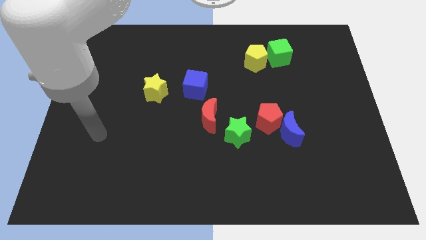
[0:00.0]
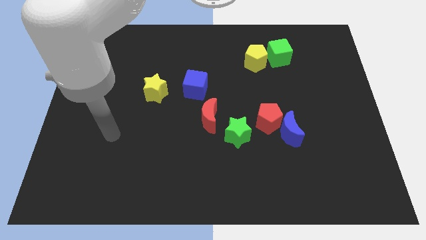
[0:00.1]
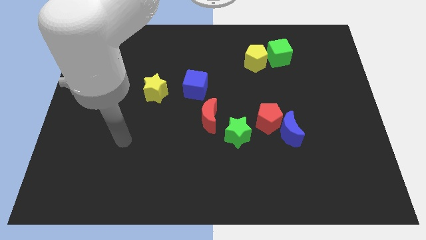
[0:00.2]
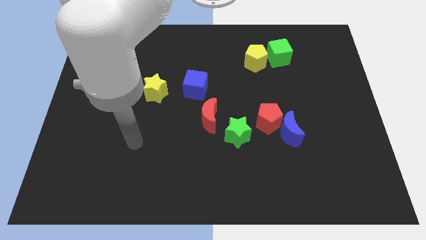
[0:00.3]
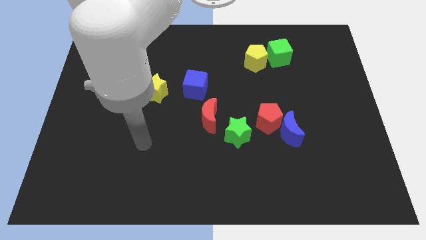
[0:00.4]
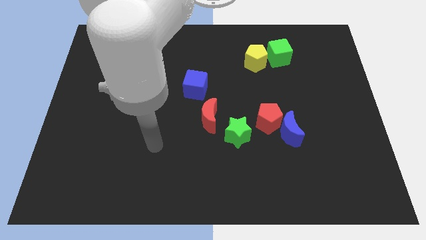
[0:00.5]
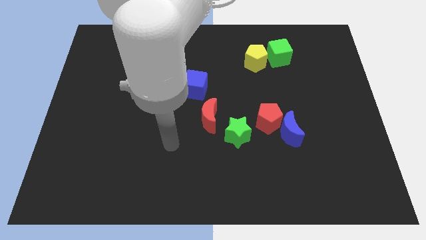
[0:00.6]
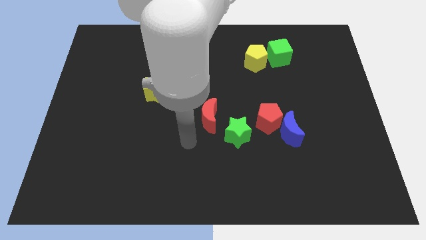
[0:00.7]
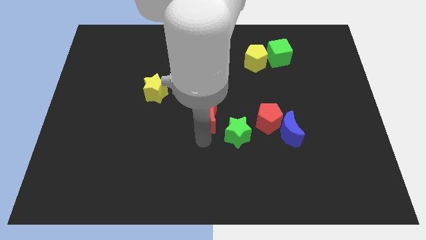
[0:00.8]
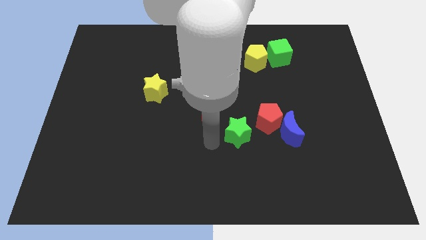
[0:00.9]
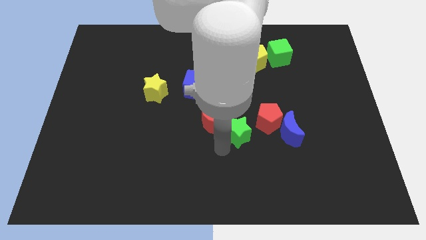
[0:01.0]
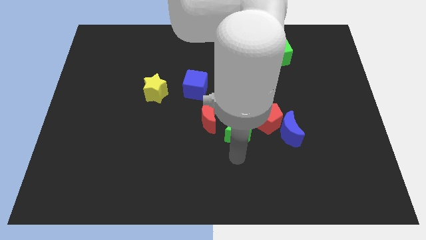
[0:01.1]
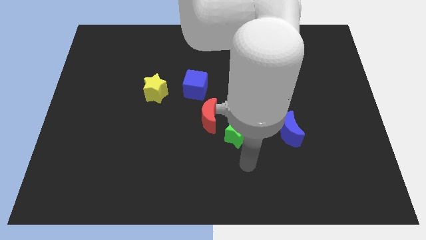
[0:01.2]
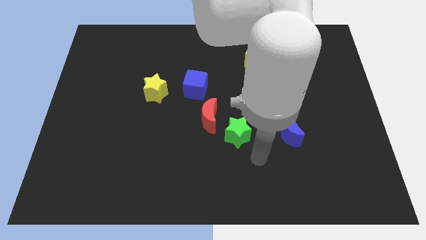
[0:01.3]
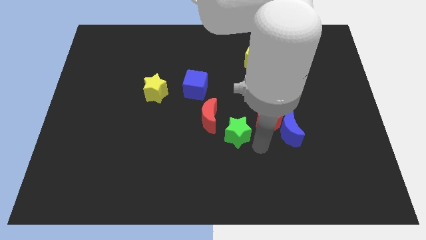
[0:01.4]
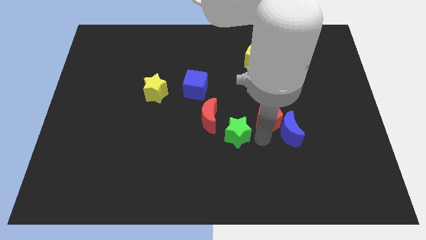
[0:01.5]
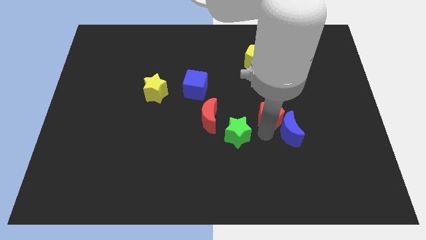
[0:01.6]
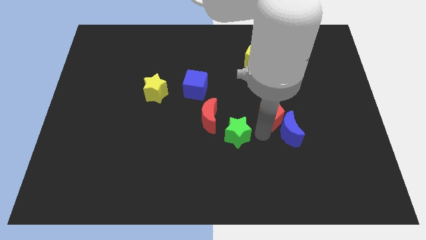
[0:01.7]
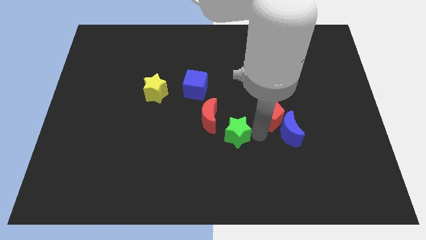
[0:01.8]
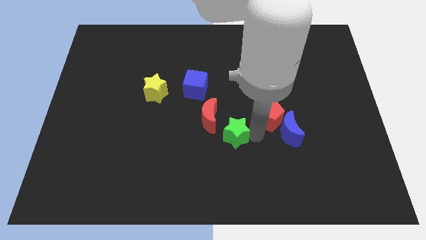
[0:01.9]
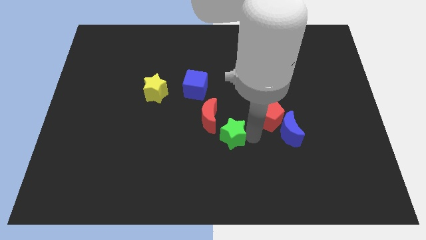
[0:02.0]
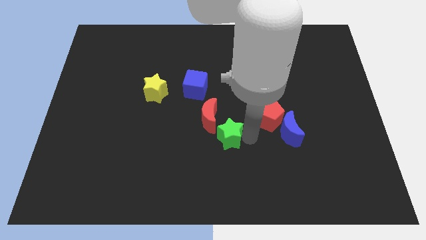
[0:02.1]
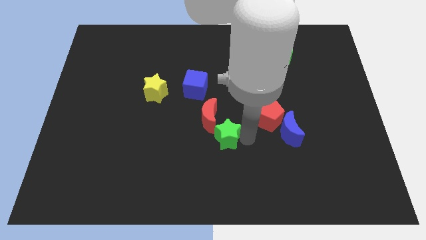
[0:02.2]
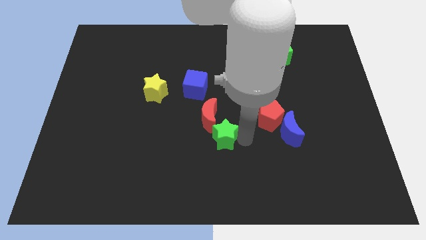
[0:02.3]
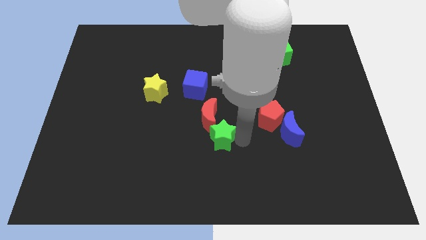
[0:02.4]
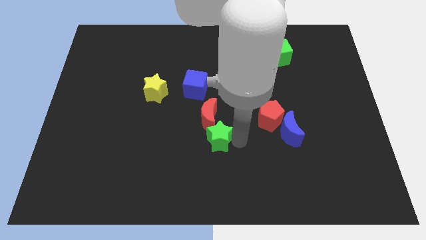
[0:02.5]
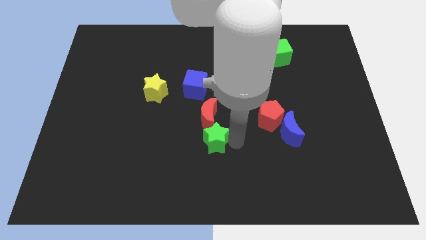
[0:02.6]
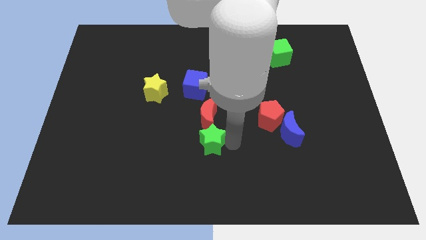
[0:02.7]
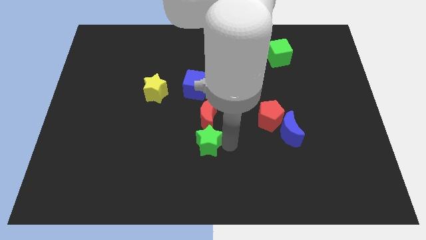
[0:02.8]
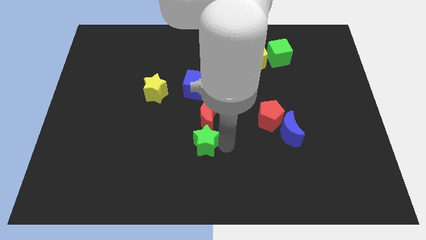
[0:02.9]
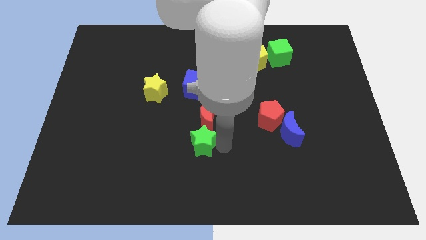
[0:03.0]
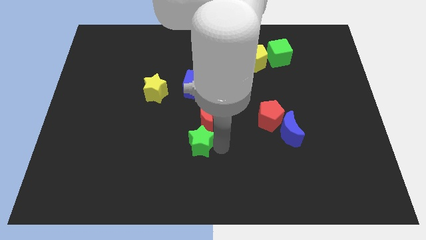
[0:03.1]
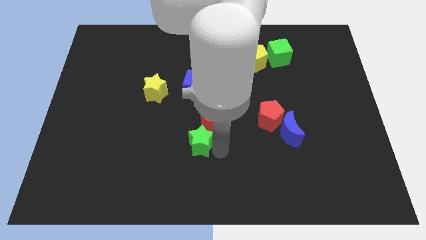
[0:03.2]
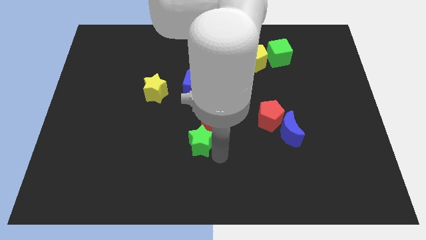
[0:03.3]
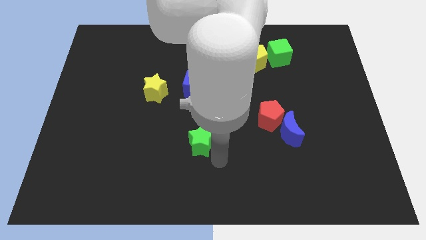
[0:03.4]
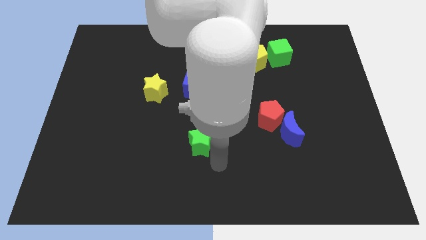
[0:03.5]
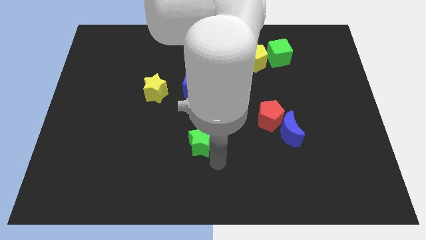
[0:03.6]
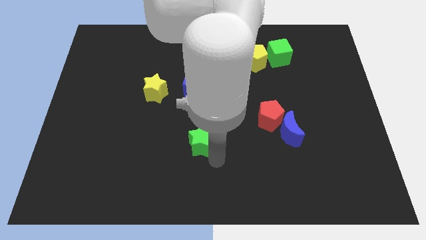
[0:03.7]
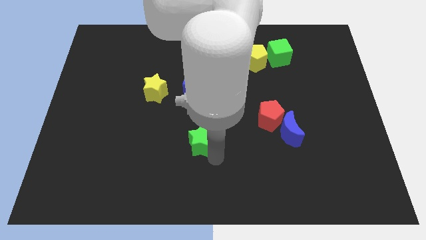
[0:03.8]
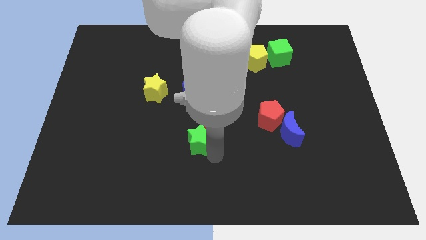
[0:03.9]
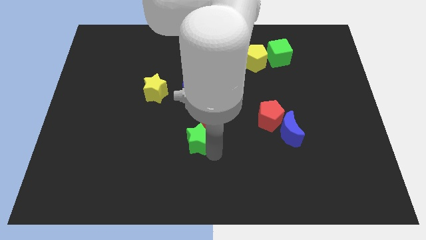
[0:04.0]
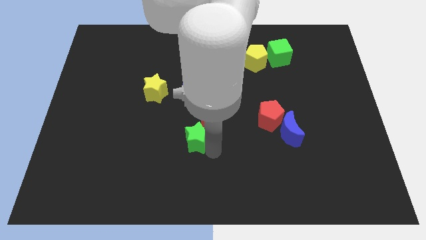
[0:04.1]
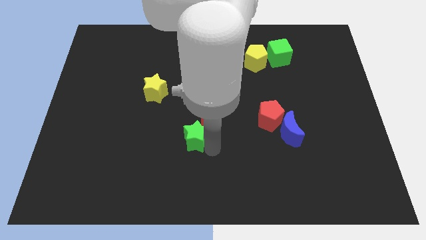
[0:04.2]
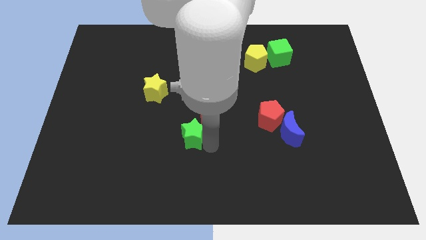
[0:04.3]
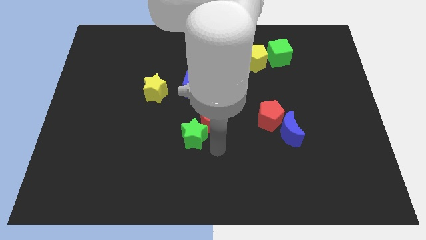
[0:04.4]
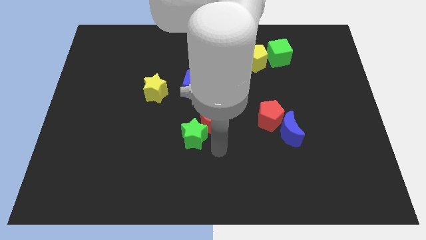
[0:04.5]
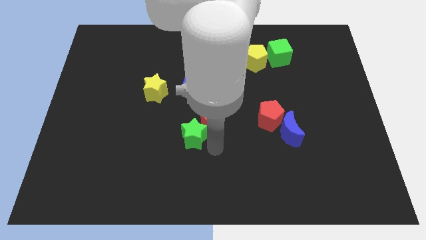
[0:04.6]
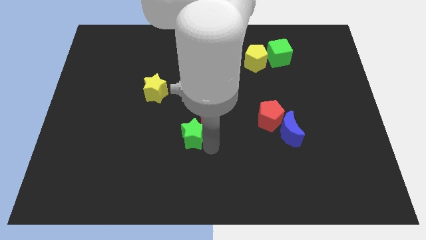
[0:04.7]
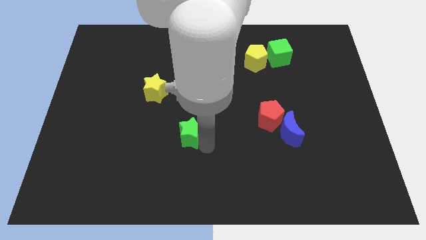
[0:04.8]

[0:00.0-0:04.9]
put the green star left of the red moon

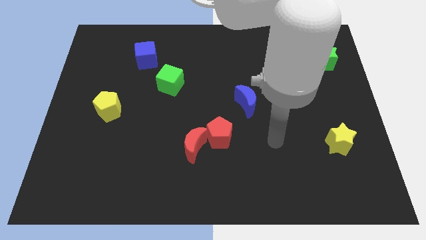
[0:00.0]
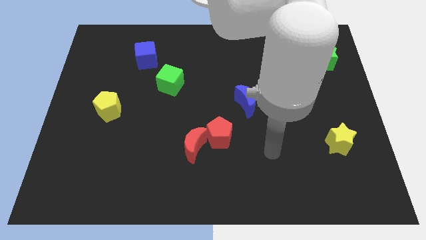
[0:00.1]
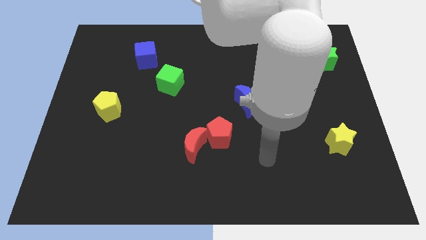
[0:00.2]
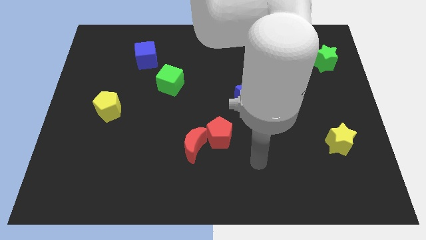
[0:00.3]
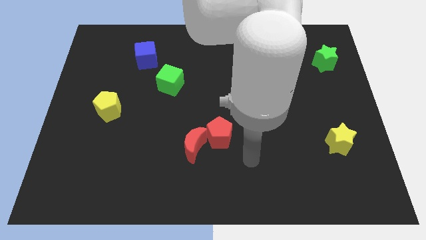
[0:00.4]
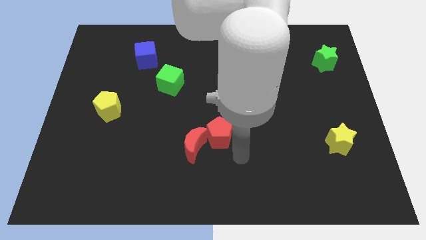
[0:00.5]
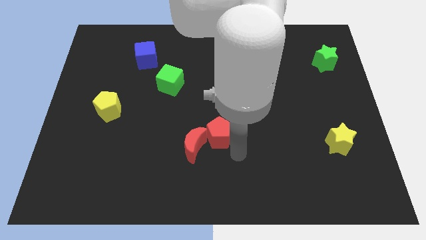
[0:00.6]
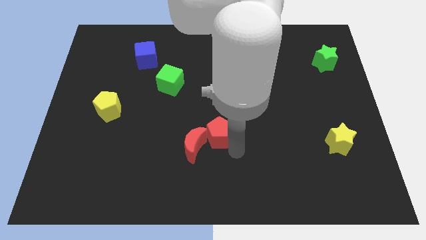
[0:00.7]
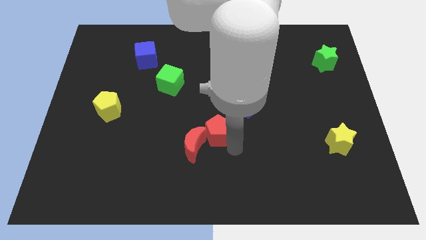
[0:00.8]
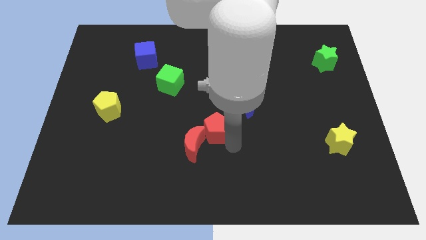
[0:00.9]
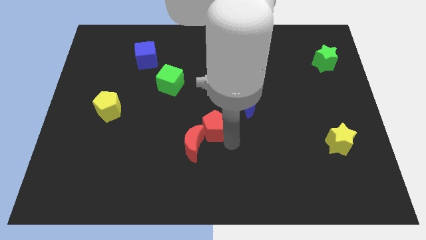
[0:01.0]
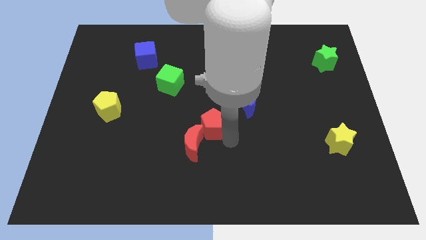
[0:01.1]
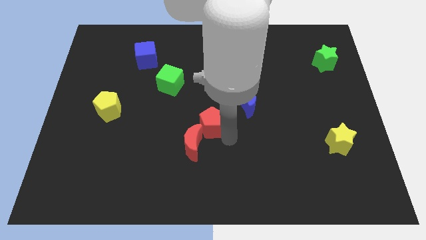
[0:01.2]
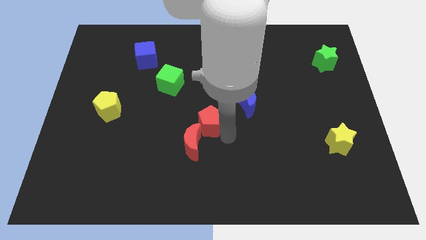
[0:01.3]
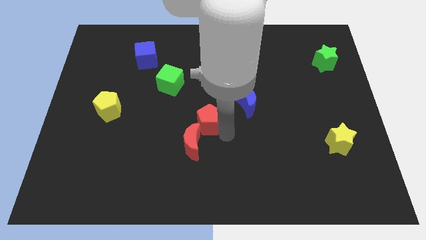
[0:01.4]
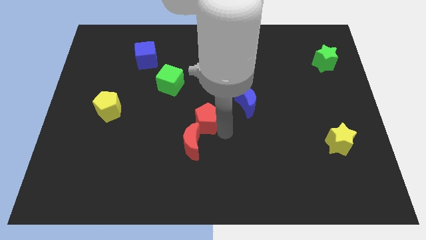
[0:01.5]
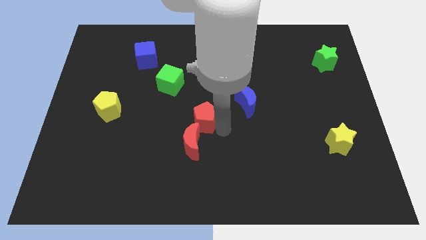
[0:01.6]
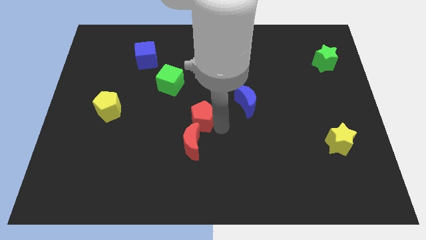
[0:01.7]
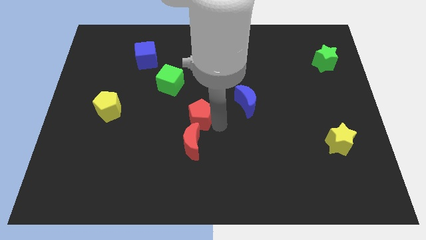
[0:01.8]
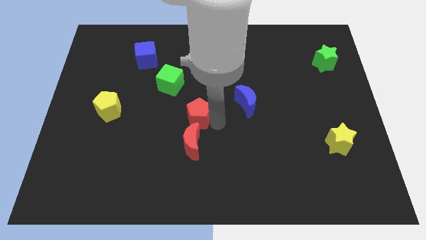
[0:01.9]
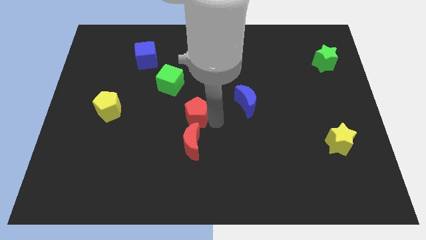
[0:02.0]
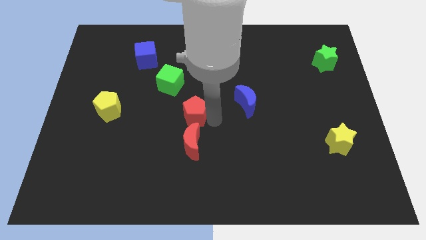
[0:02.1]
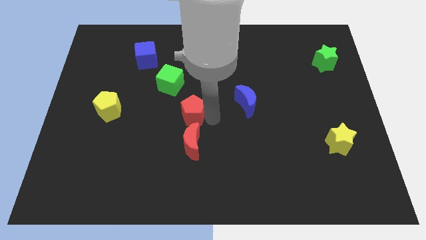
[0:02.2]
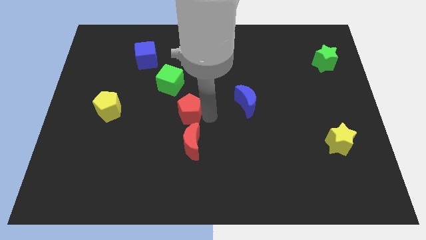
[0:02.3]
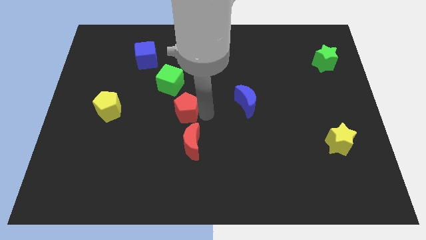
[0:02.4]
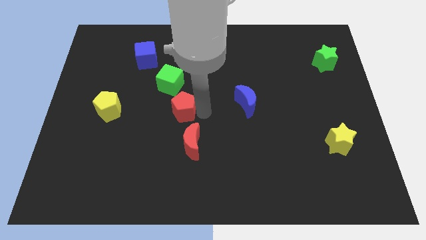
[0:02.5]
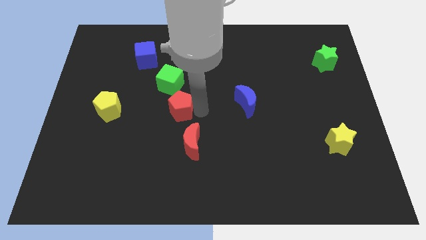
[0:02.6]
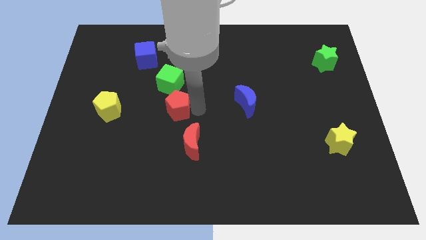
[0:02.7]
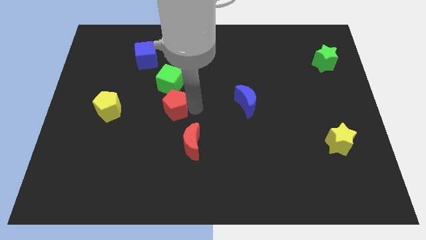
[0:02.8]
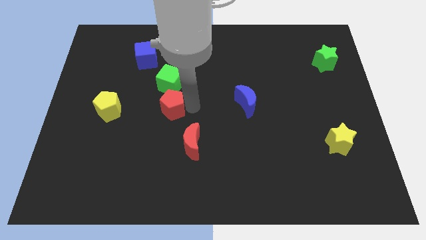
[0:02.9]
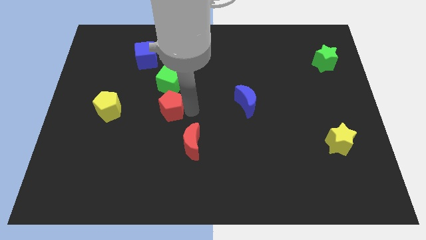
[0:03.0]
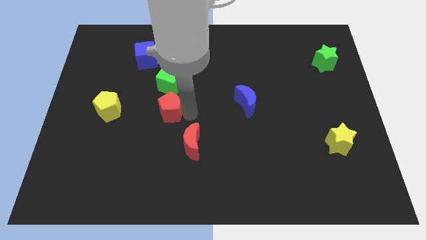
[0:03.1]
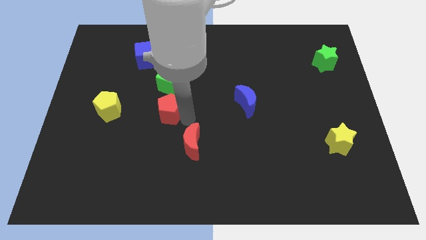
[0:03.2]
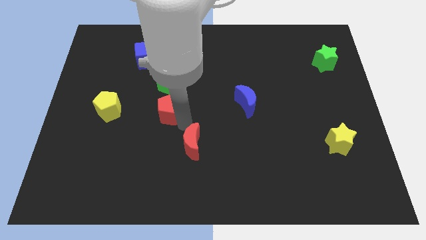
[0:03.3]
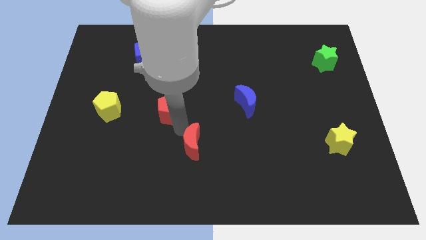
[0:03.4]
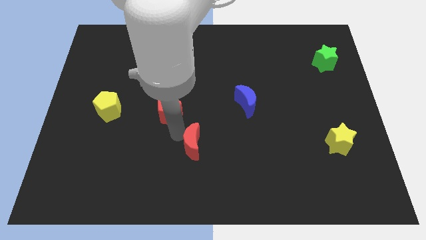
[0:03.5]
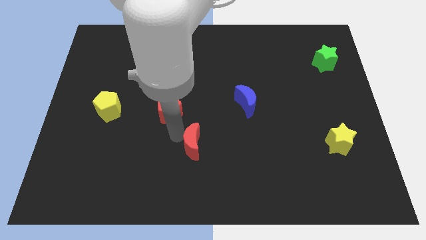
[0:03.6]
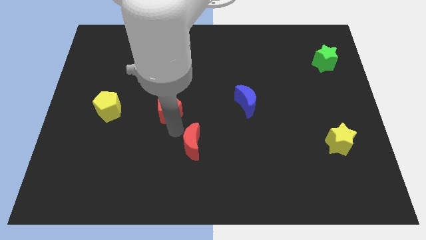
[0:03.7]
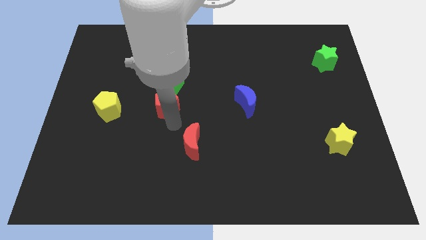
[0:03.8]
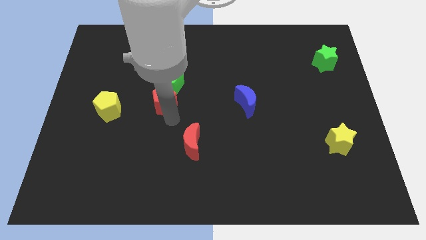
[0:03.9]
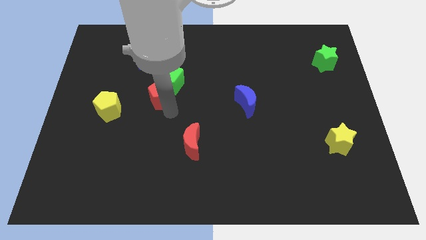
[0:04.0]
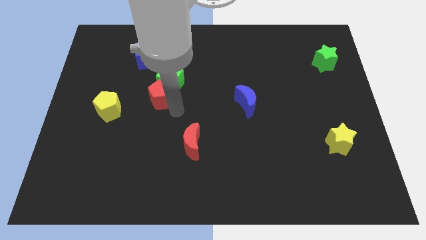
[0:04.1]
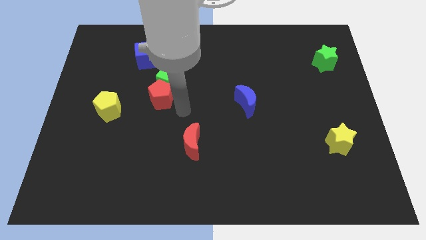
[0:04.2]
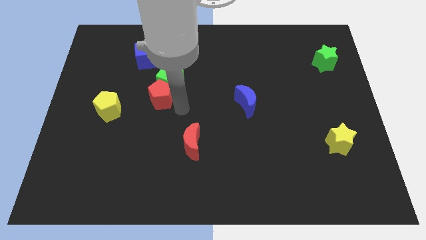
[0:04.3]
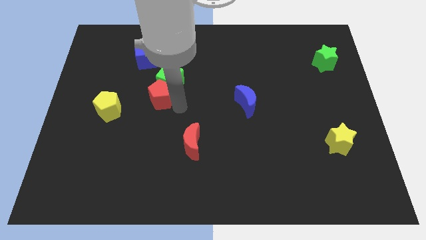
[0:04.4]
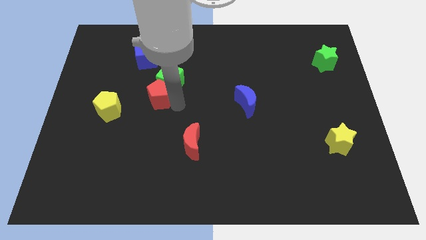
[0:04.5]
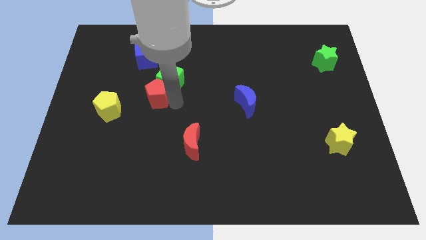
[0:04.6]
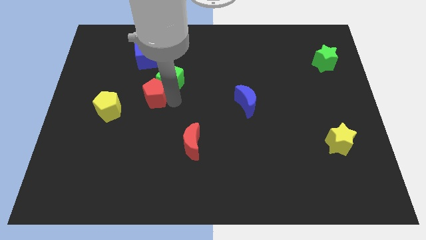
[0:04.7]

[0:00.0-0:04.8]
slide the red pentagon to the left side of the green cube
